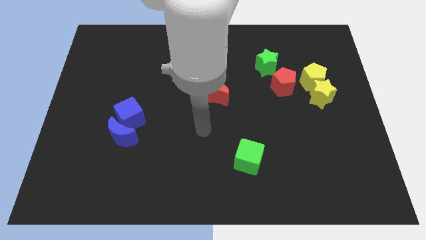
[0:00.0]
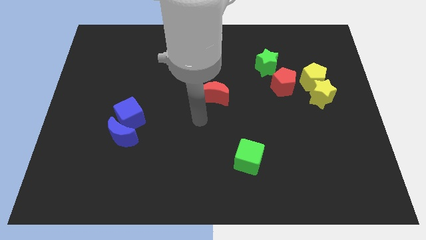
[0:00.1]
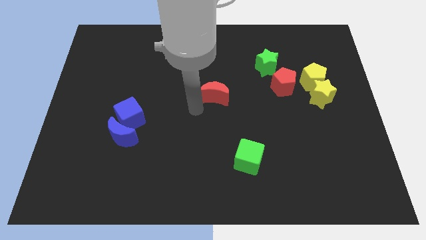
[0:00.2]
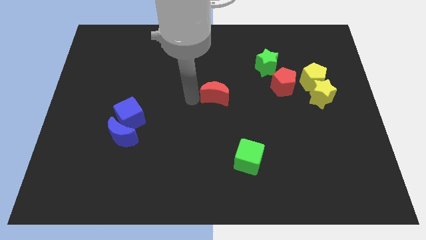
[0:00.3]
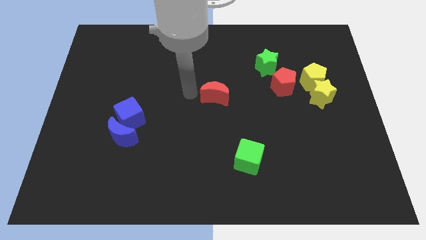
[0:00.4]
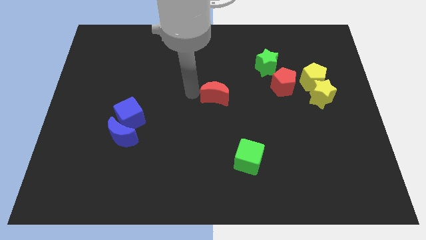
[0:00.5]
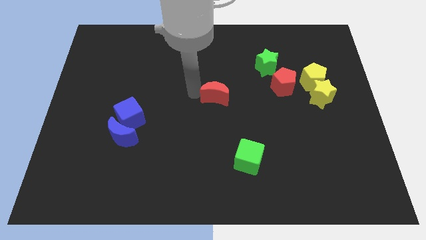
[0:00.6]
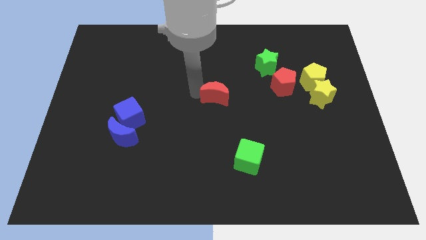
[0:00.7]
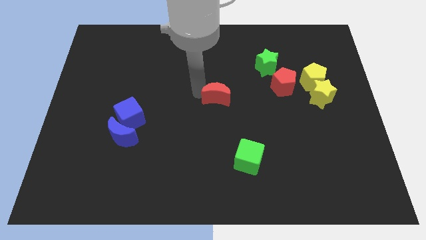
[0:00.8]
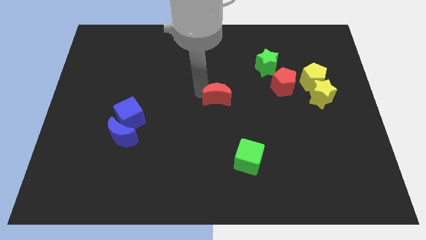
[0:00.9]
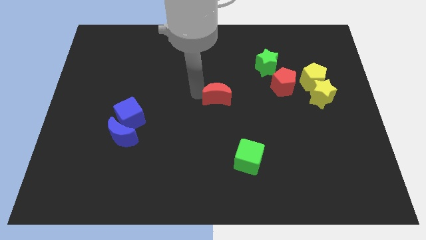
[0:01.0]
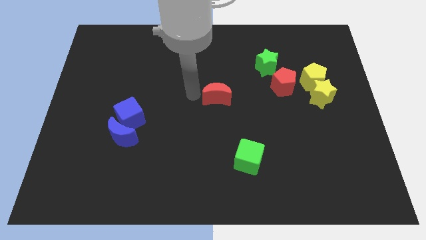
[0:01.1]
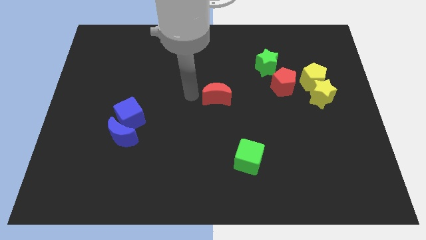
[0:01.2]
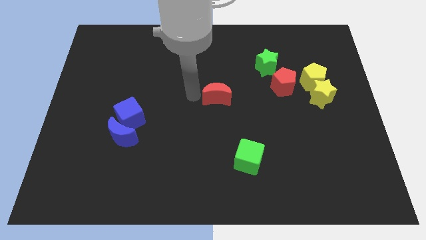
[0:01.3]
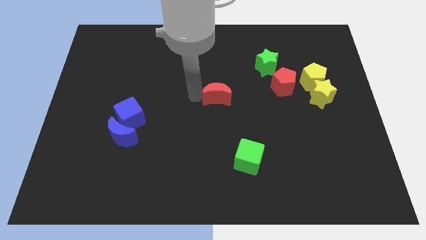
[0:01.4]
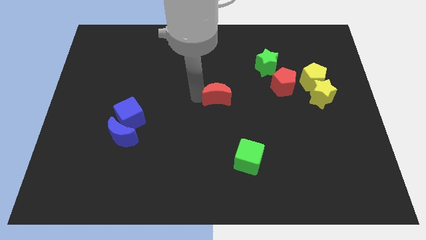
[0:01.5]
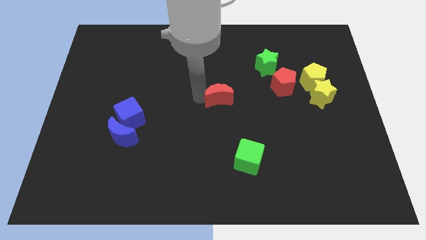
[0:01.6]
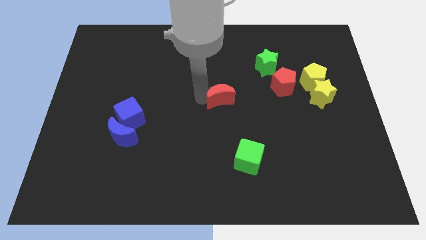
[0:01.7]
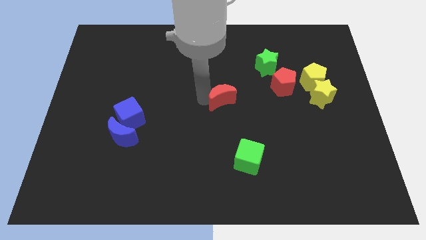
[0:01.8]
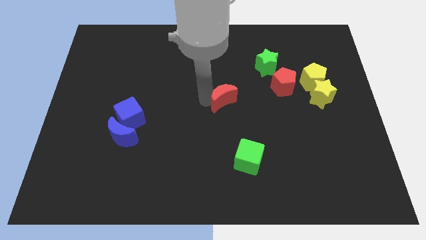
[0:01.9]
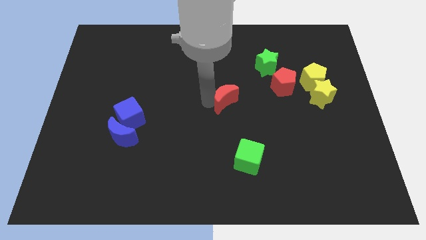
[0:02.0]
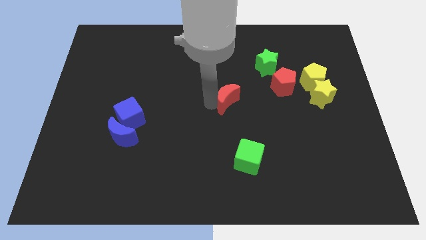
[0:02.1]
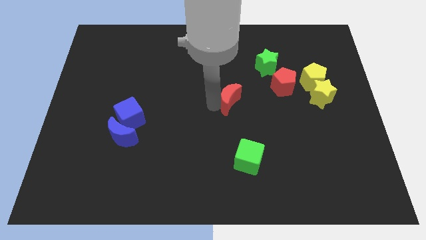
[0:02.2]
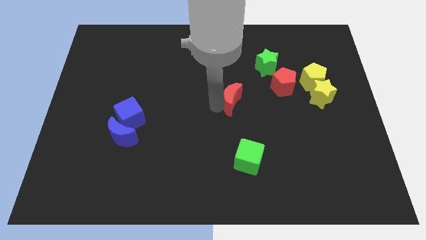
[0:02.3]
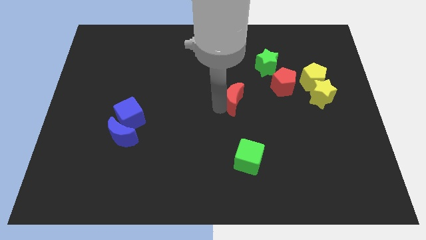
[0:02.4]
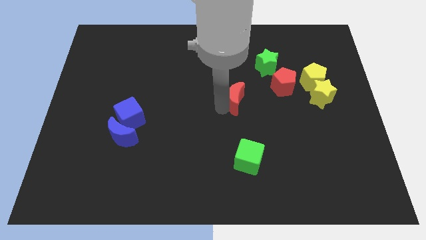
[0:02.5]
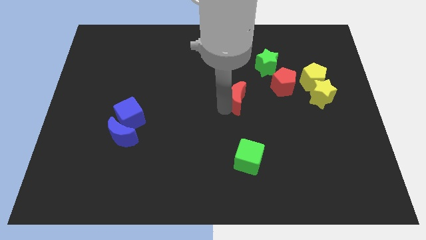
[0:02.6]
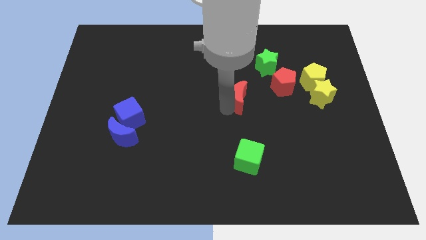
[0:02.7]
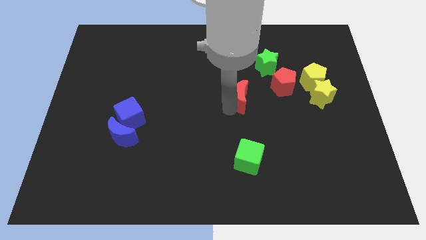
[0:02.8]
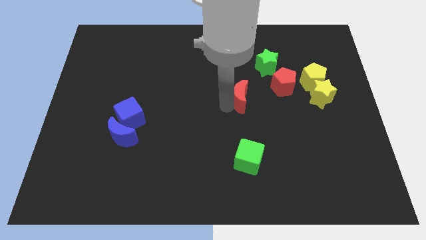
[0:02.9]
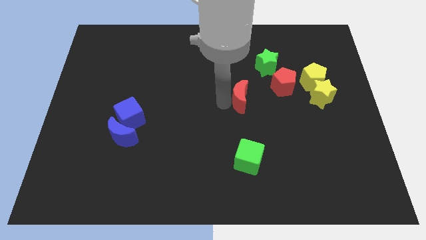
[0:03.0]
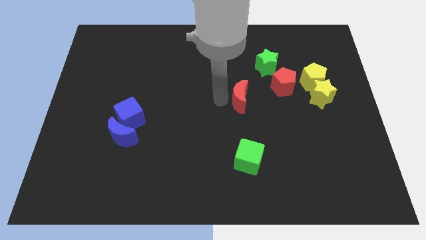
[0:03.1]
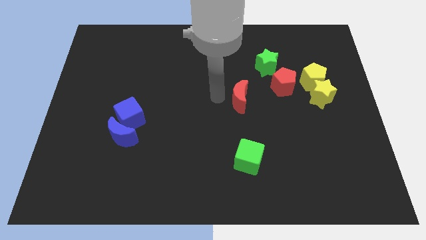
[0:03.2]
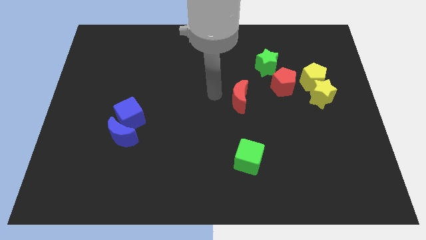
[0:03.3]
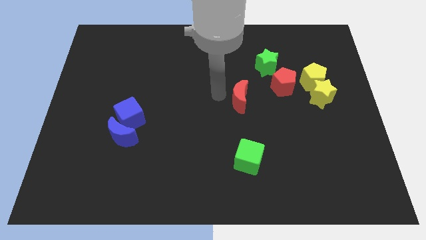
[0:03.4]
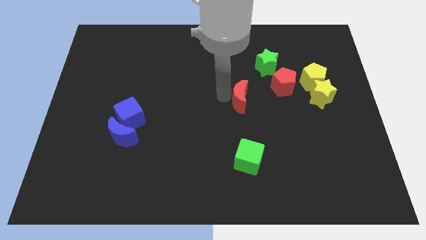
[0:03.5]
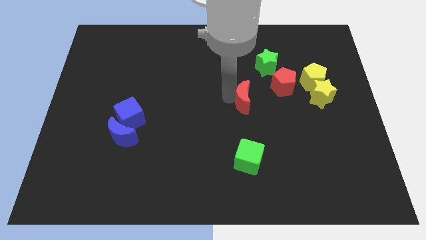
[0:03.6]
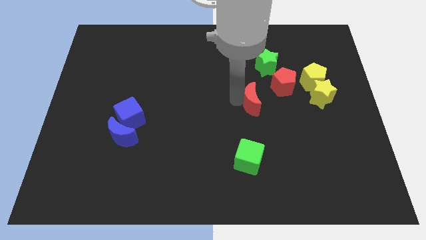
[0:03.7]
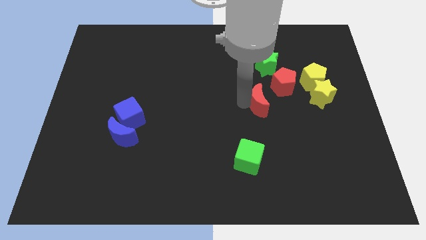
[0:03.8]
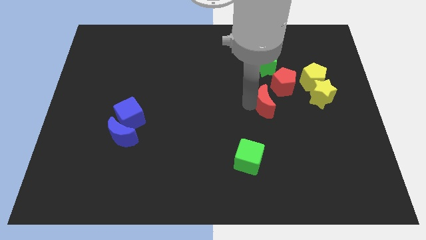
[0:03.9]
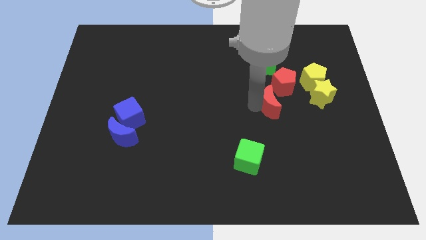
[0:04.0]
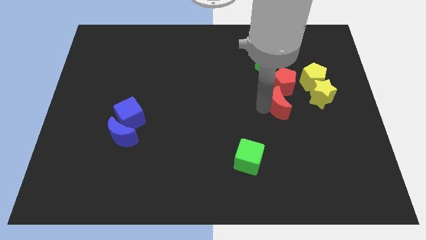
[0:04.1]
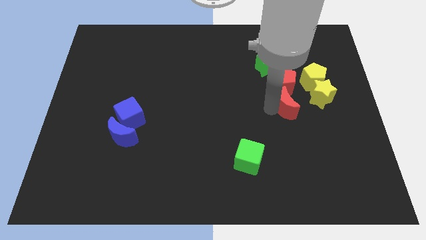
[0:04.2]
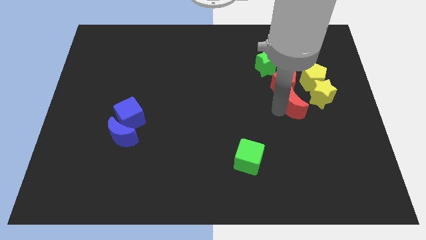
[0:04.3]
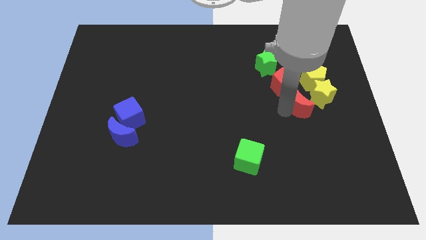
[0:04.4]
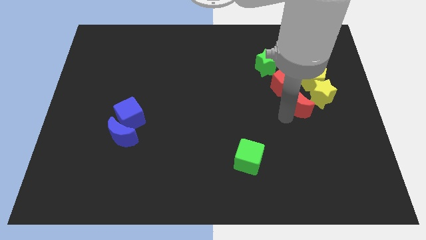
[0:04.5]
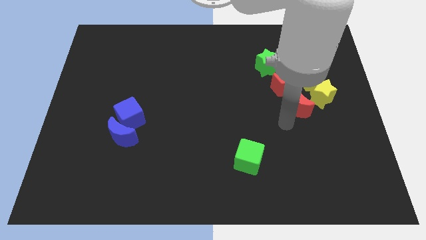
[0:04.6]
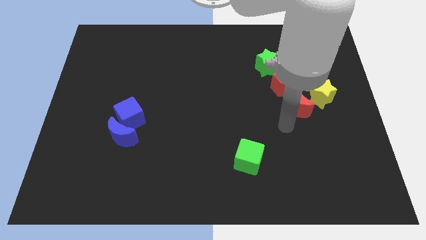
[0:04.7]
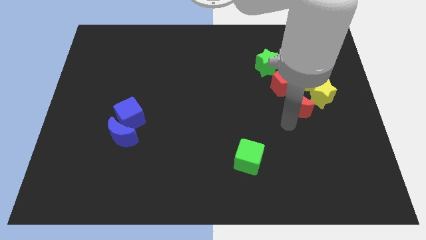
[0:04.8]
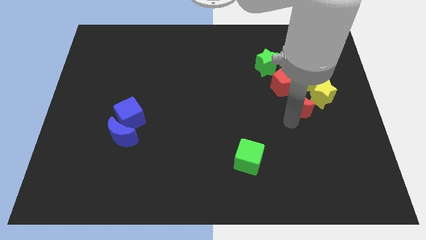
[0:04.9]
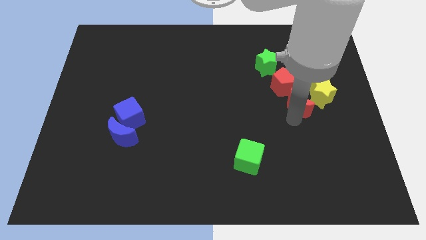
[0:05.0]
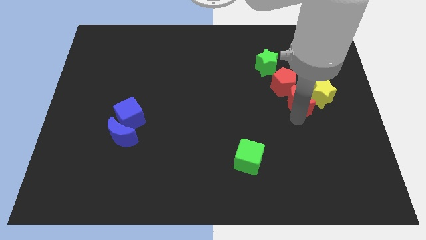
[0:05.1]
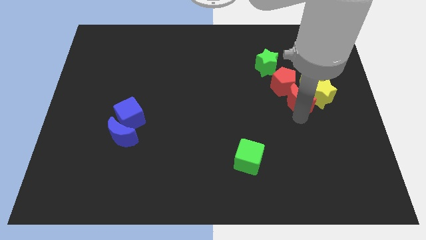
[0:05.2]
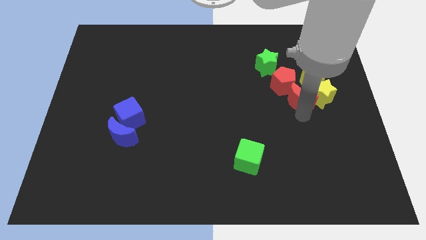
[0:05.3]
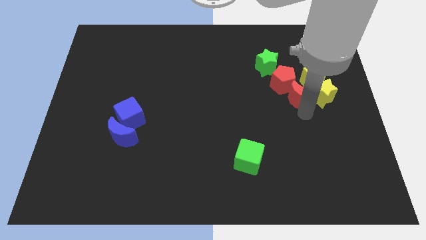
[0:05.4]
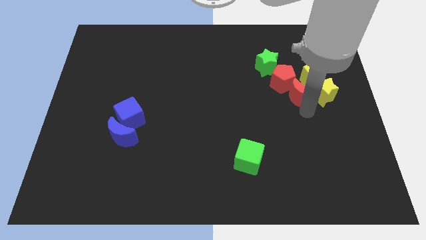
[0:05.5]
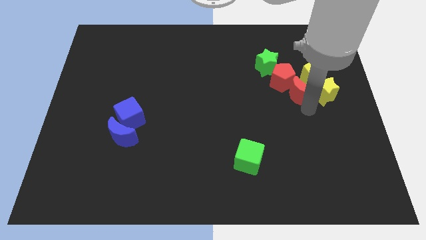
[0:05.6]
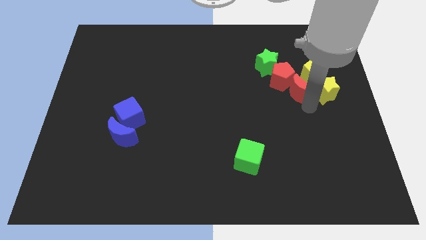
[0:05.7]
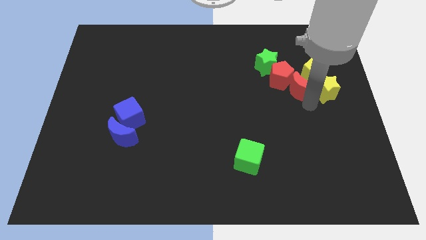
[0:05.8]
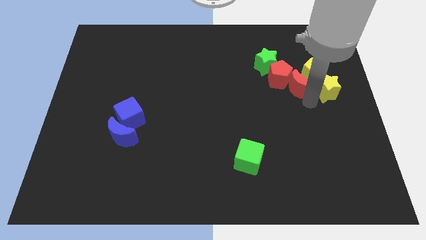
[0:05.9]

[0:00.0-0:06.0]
move the red moon close to the yellow pentagon

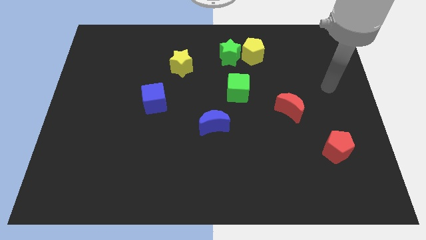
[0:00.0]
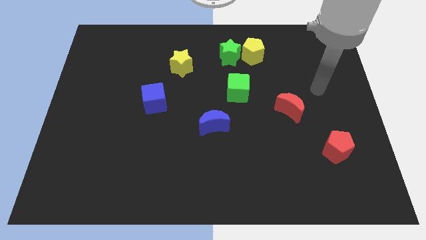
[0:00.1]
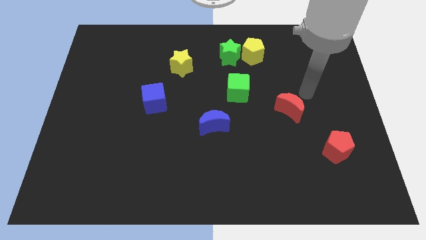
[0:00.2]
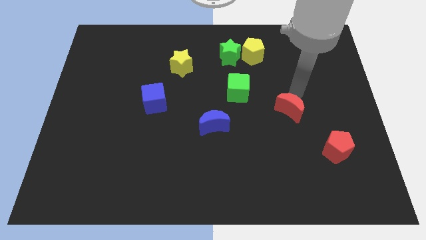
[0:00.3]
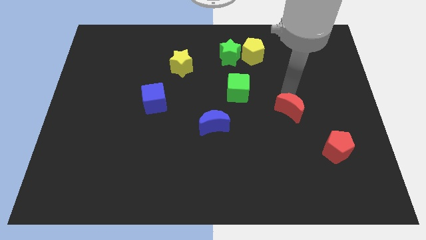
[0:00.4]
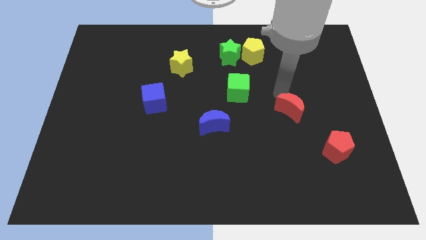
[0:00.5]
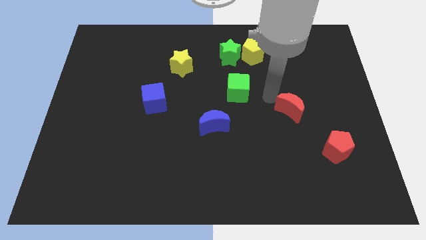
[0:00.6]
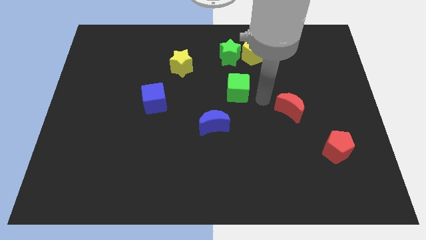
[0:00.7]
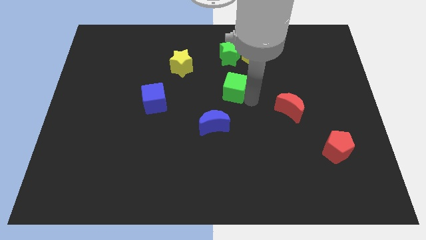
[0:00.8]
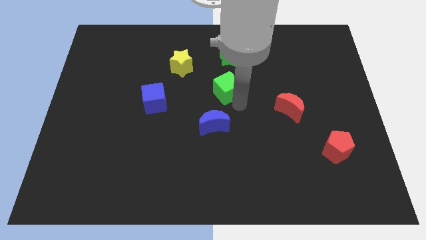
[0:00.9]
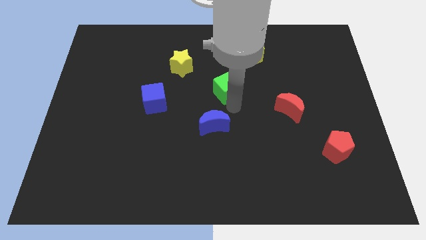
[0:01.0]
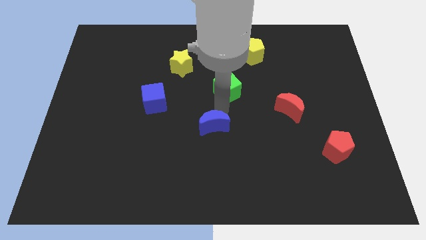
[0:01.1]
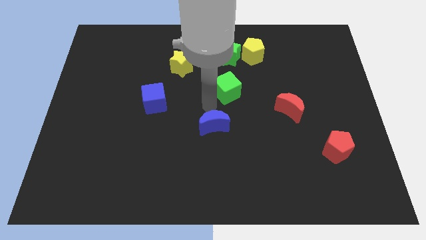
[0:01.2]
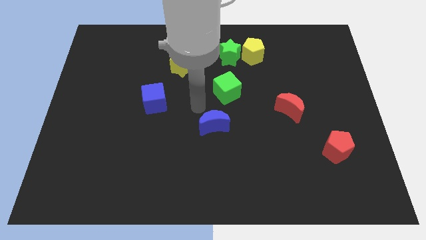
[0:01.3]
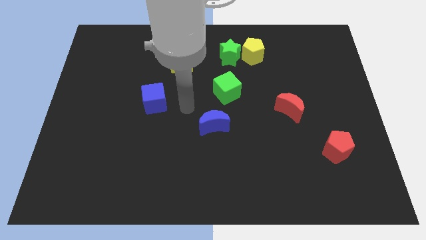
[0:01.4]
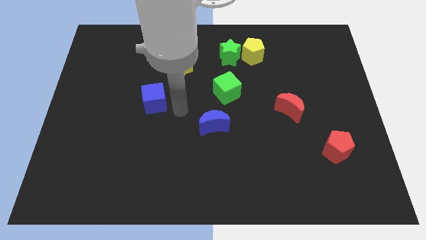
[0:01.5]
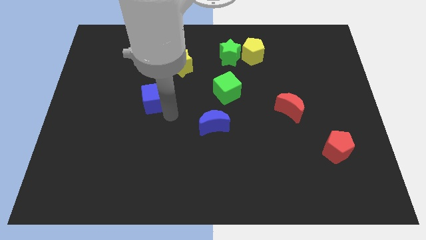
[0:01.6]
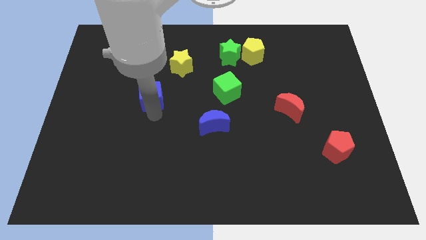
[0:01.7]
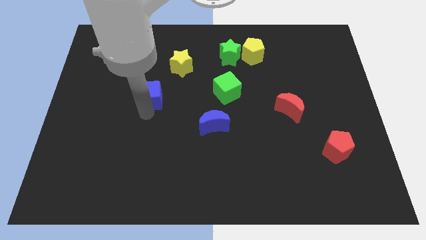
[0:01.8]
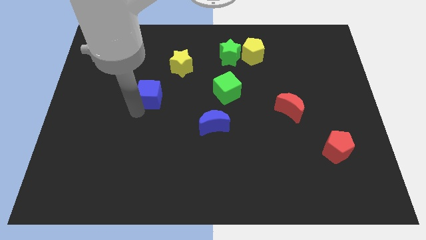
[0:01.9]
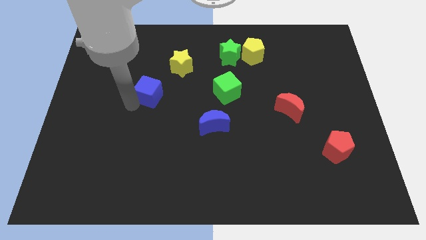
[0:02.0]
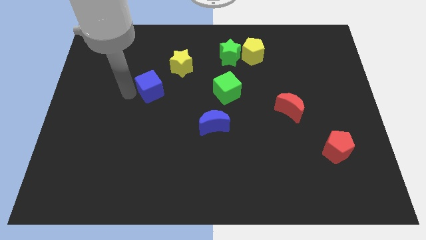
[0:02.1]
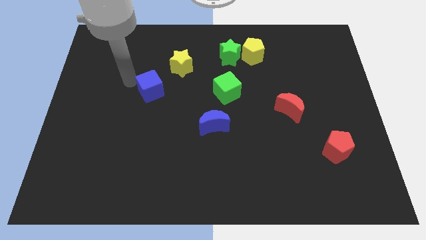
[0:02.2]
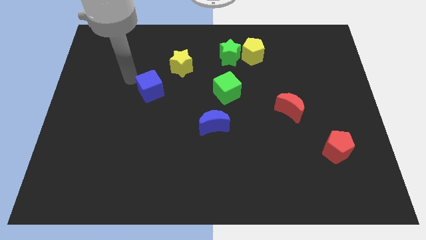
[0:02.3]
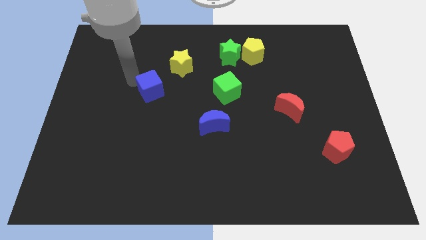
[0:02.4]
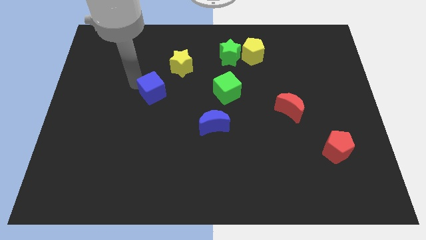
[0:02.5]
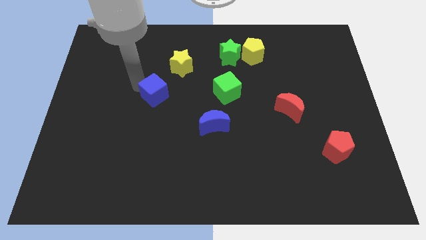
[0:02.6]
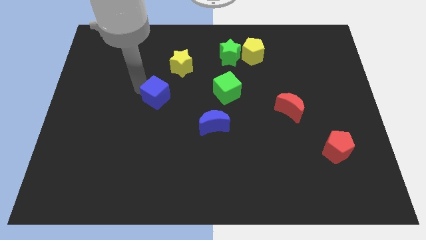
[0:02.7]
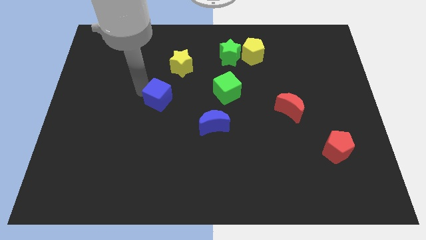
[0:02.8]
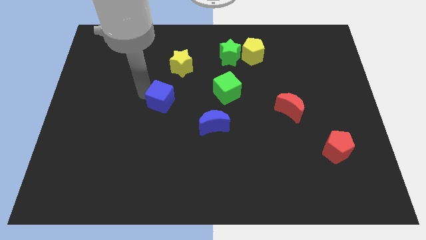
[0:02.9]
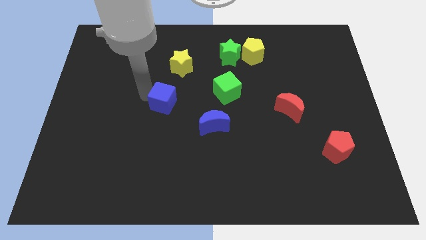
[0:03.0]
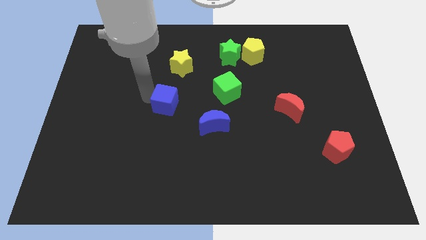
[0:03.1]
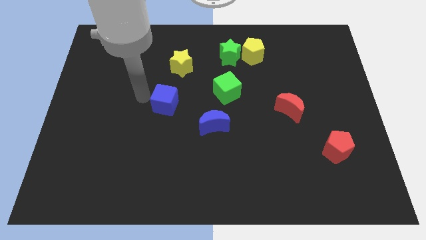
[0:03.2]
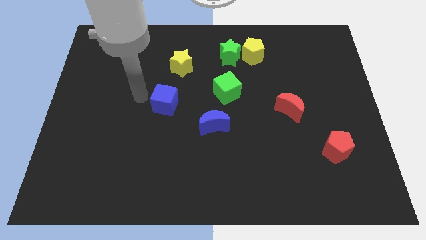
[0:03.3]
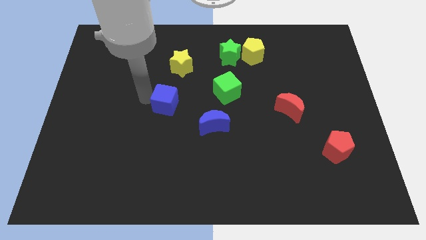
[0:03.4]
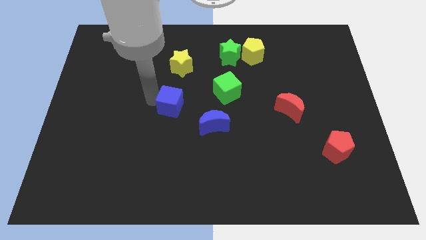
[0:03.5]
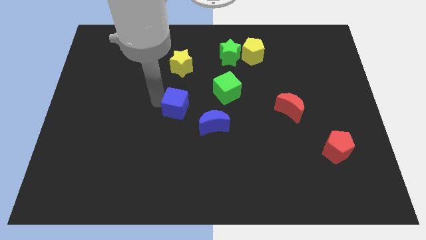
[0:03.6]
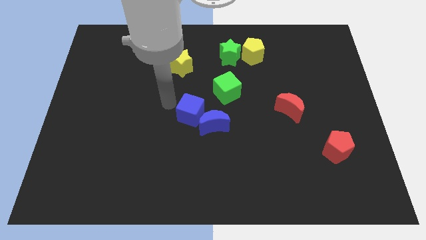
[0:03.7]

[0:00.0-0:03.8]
move the blue cube close to the blue moon
